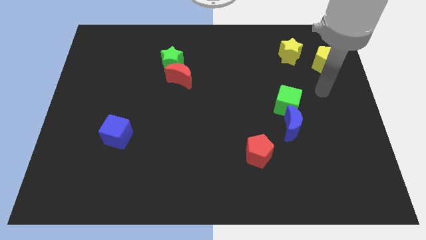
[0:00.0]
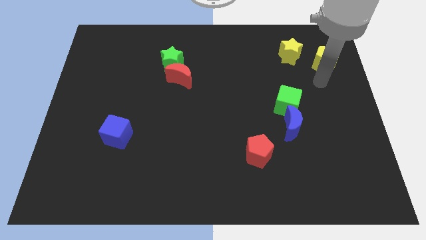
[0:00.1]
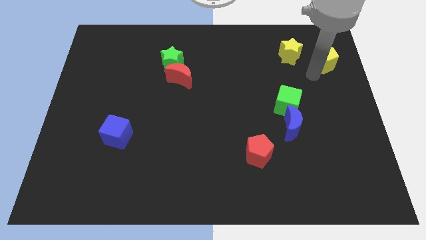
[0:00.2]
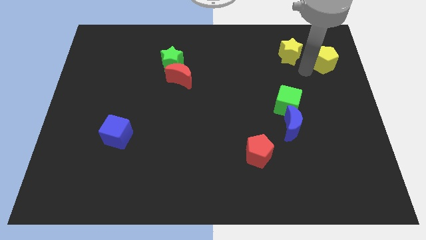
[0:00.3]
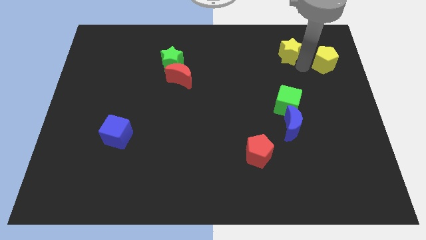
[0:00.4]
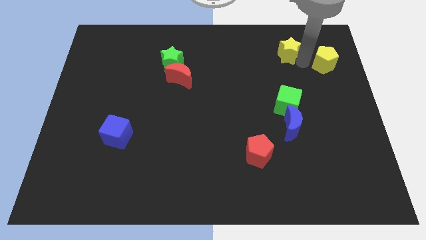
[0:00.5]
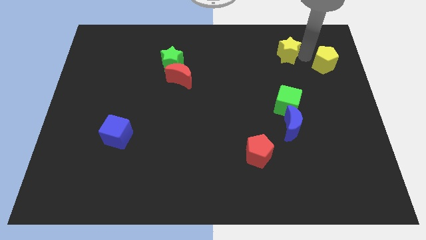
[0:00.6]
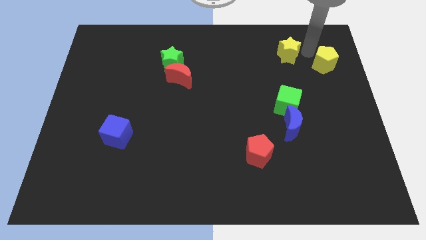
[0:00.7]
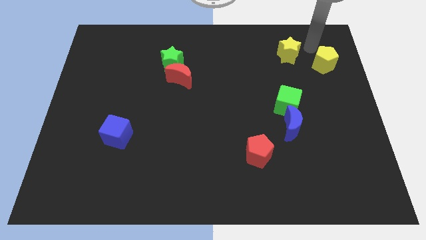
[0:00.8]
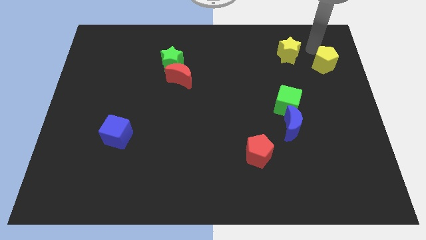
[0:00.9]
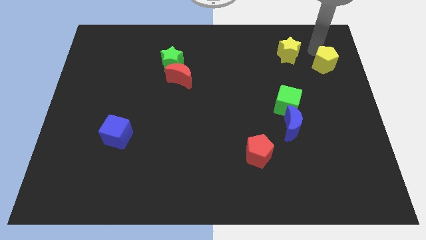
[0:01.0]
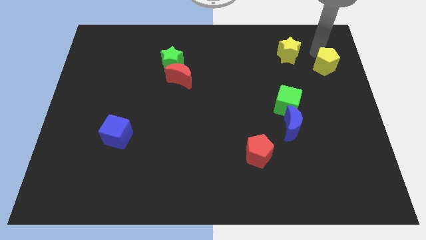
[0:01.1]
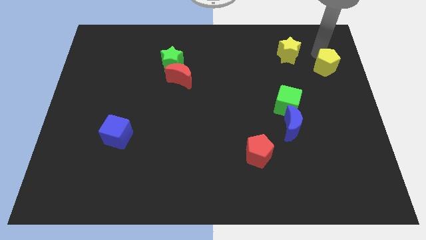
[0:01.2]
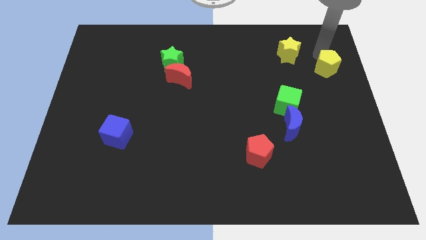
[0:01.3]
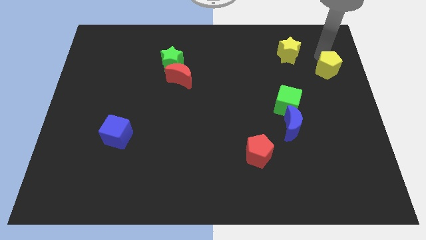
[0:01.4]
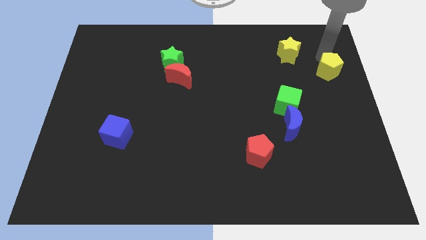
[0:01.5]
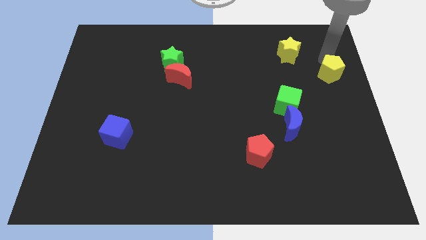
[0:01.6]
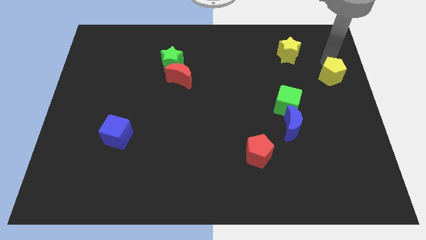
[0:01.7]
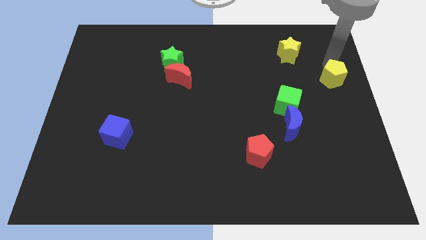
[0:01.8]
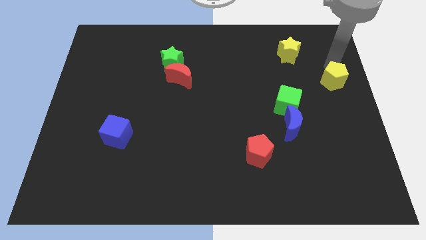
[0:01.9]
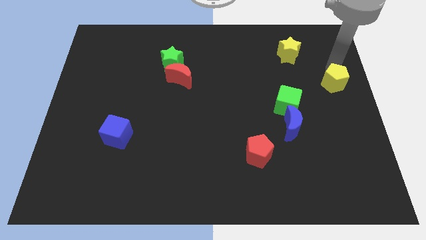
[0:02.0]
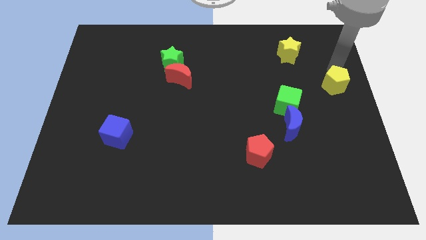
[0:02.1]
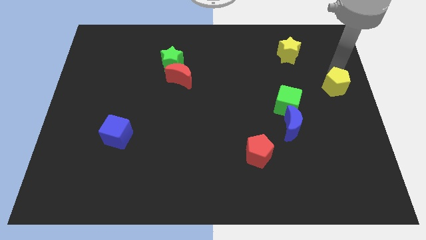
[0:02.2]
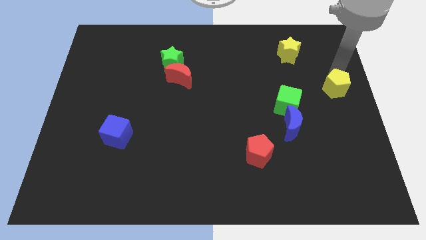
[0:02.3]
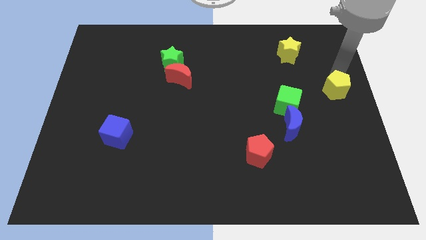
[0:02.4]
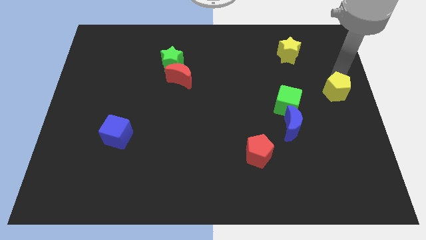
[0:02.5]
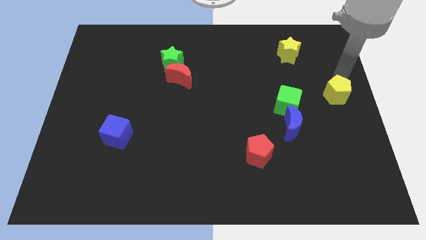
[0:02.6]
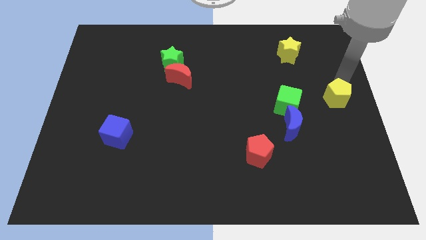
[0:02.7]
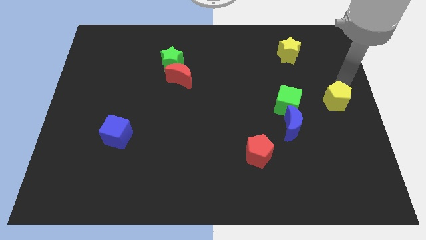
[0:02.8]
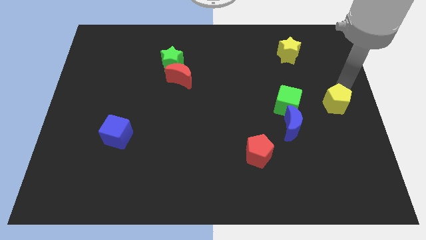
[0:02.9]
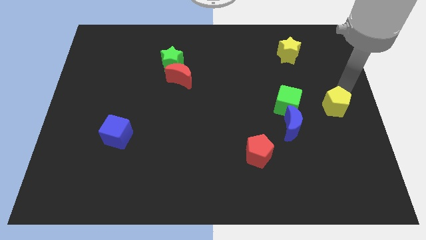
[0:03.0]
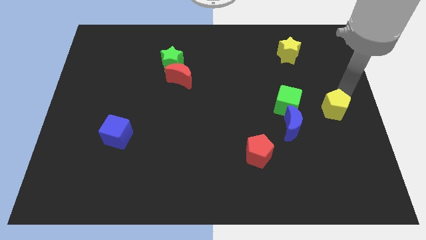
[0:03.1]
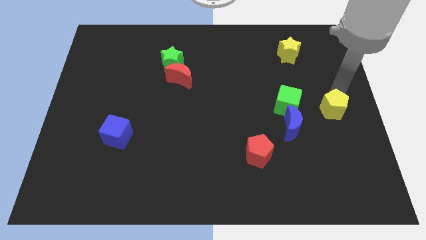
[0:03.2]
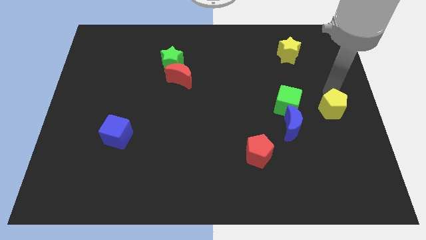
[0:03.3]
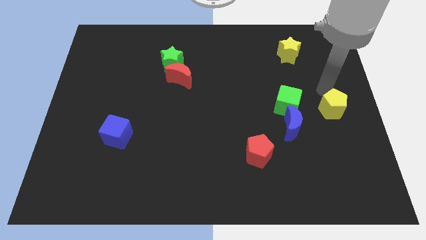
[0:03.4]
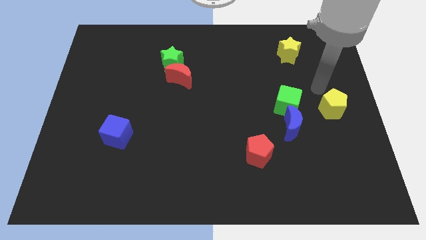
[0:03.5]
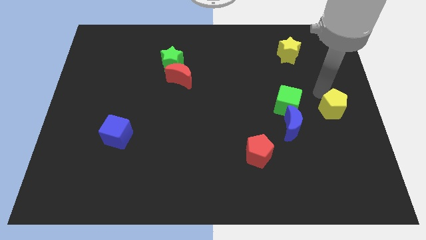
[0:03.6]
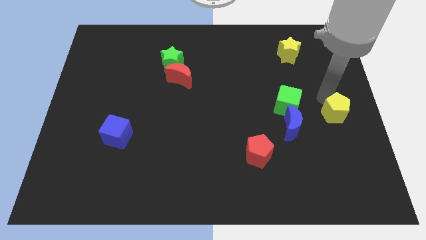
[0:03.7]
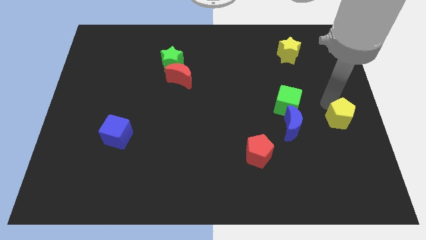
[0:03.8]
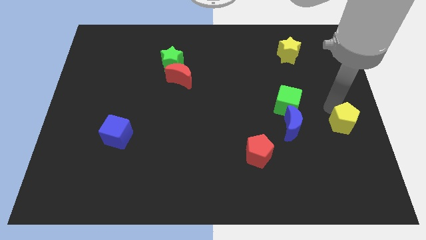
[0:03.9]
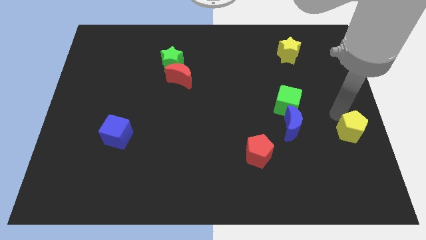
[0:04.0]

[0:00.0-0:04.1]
push the yellow pentagon down

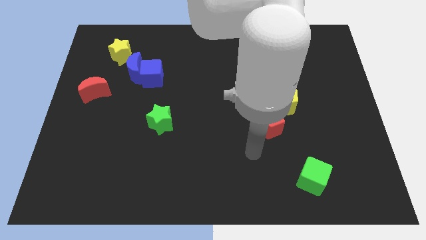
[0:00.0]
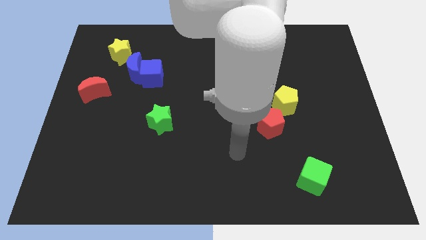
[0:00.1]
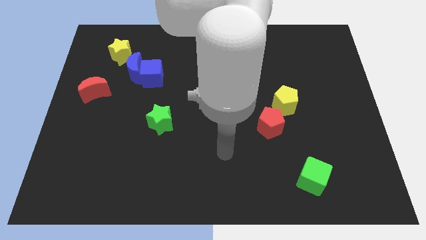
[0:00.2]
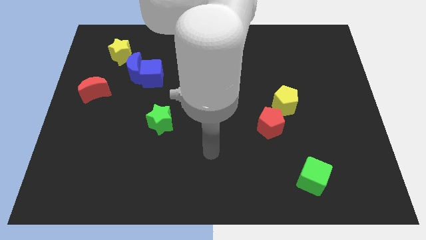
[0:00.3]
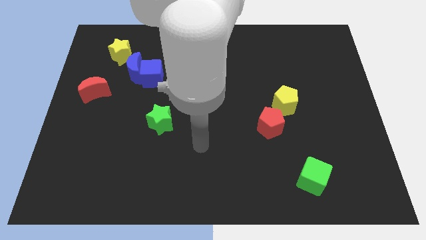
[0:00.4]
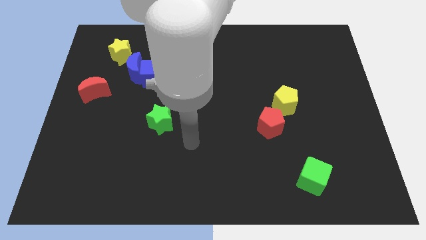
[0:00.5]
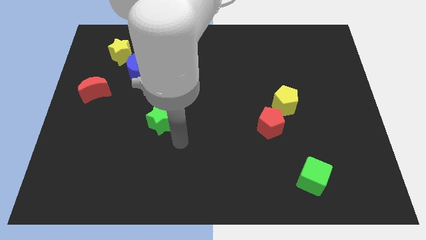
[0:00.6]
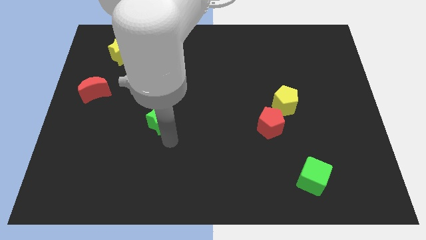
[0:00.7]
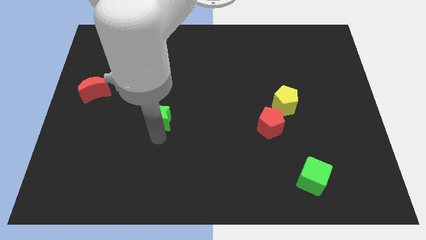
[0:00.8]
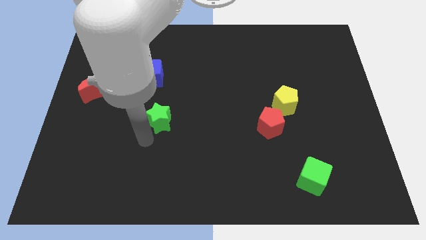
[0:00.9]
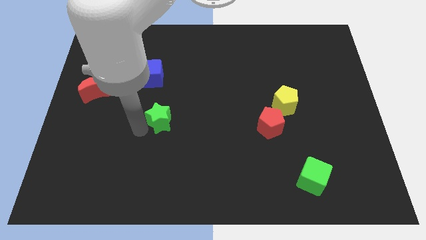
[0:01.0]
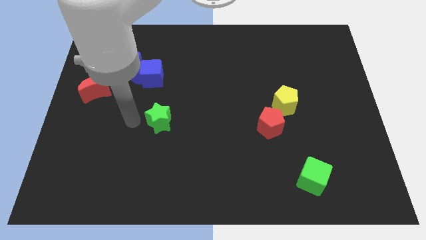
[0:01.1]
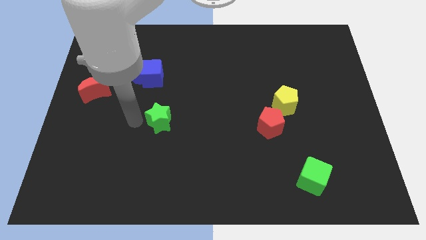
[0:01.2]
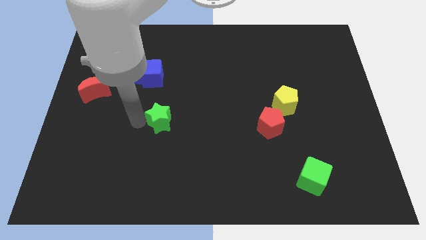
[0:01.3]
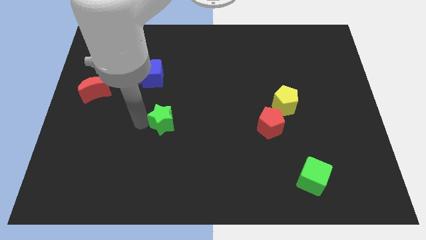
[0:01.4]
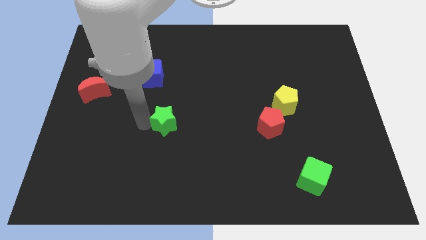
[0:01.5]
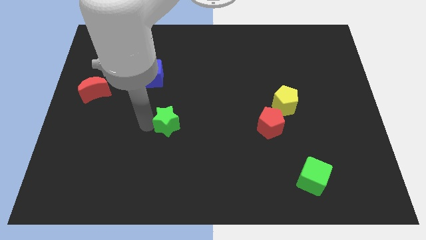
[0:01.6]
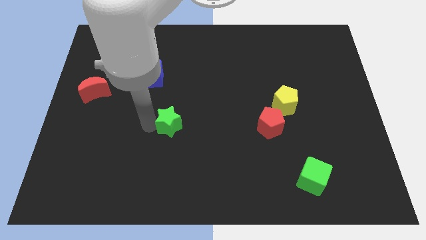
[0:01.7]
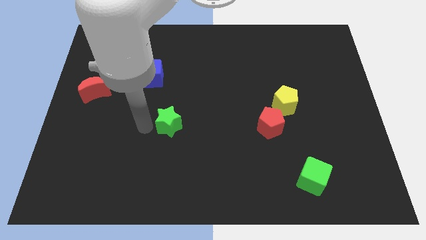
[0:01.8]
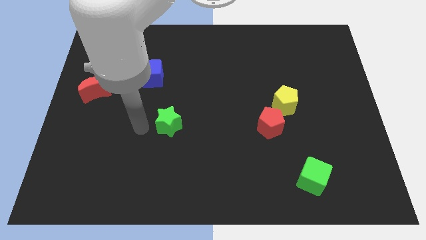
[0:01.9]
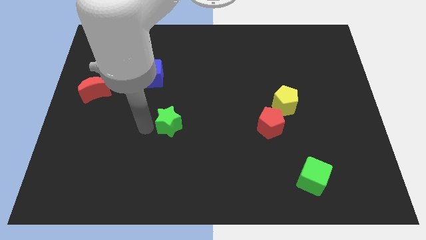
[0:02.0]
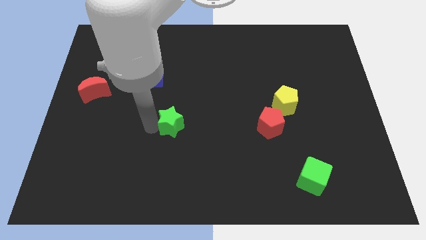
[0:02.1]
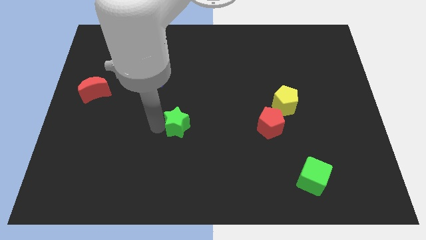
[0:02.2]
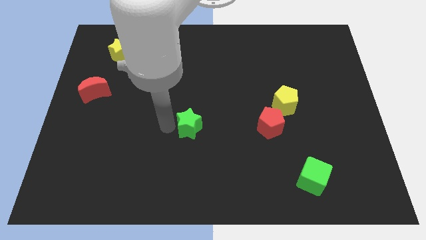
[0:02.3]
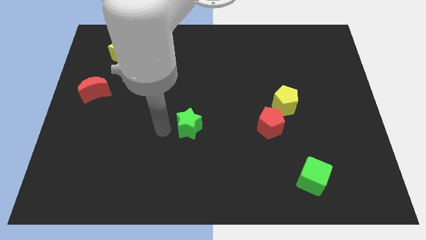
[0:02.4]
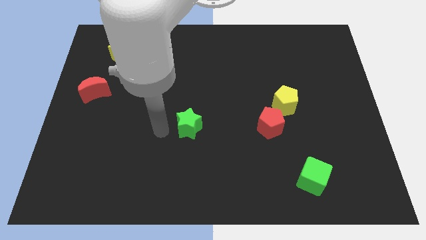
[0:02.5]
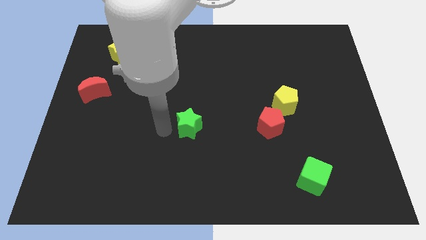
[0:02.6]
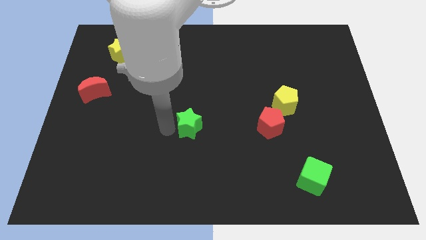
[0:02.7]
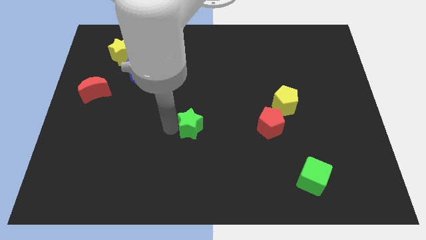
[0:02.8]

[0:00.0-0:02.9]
slide the green star right slightly

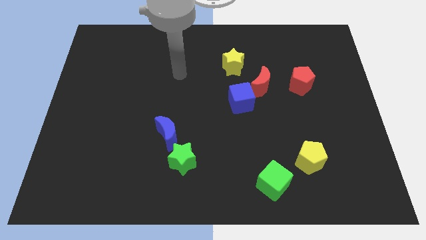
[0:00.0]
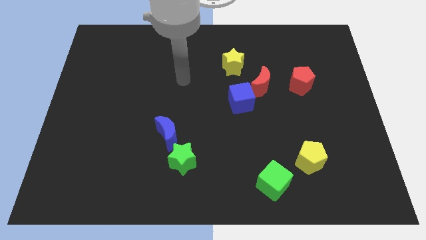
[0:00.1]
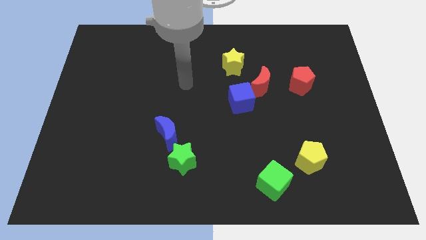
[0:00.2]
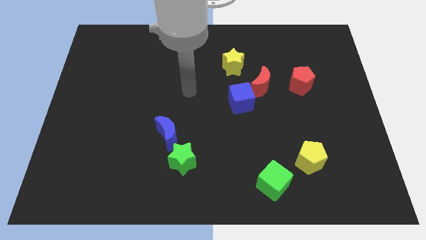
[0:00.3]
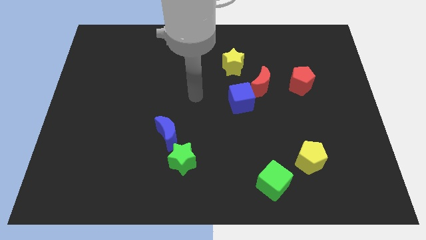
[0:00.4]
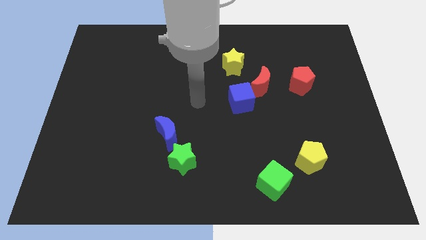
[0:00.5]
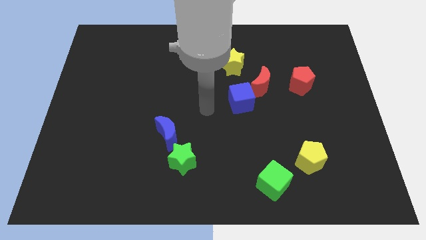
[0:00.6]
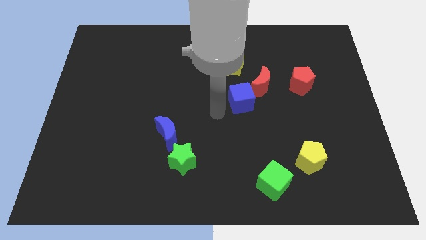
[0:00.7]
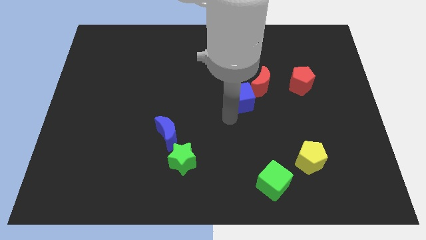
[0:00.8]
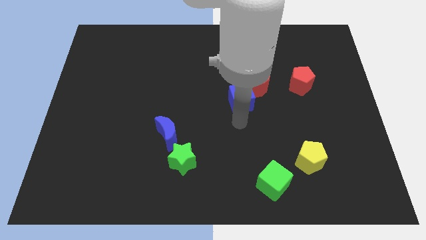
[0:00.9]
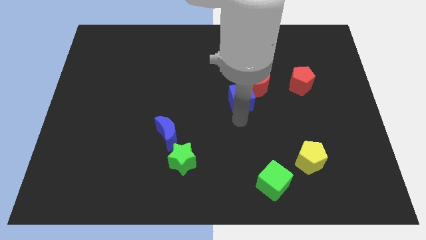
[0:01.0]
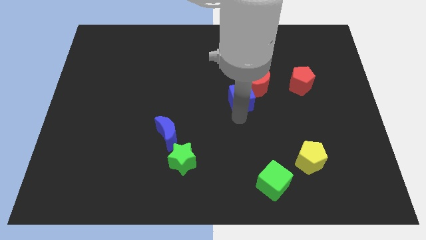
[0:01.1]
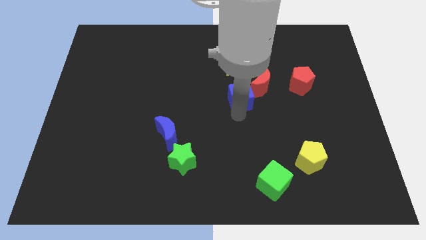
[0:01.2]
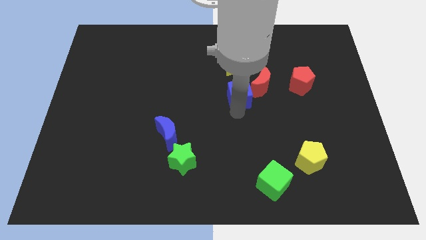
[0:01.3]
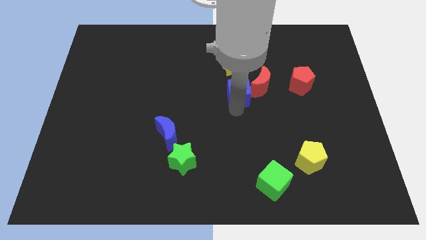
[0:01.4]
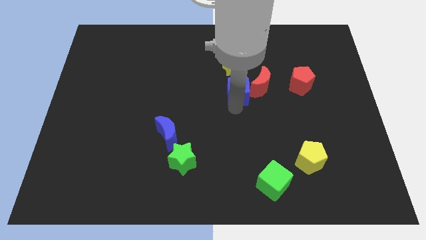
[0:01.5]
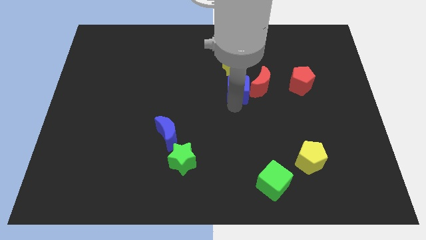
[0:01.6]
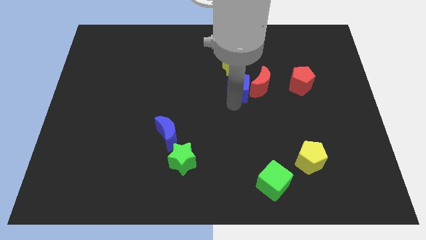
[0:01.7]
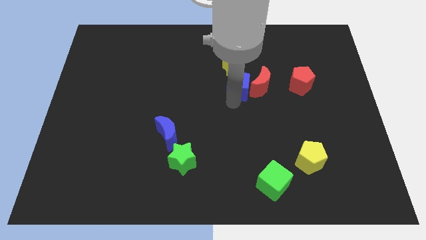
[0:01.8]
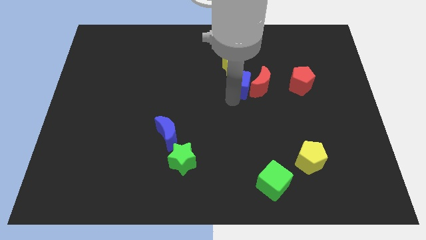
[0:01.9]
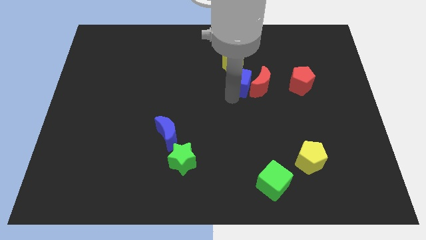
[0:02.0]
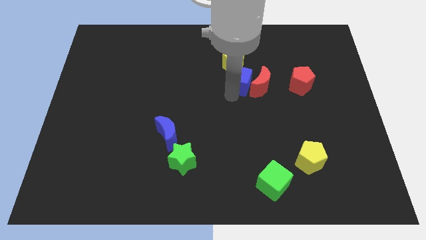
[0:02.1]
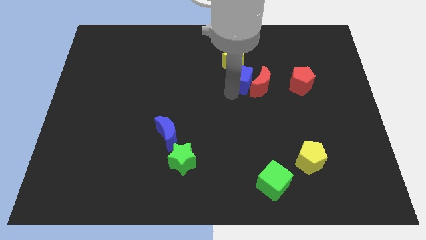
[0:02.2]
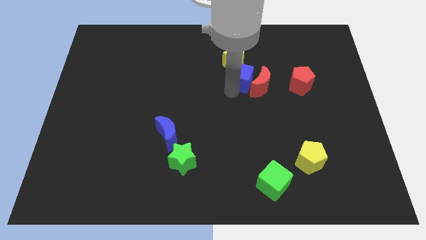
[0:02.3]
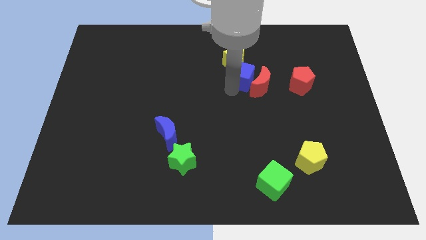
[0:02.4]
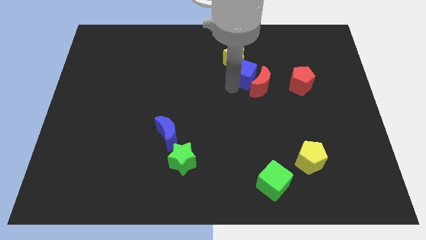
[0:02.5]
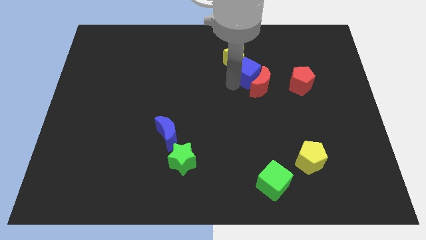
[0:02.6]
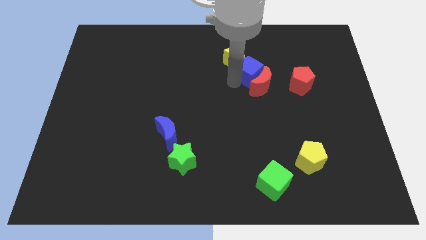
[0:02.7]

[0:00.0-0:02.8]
slightly move the blue cube up and to the right
